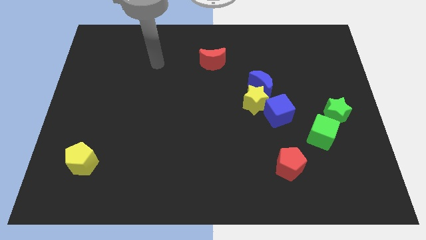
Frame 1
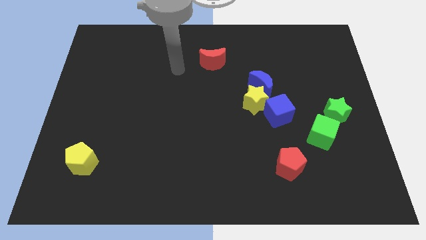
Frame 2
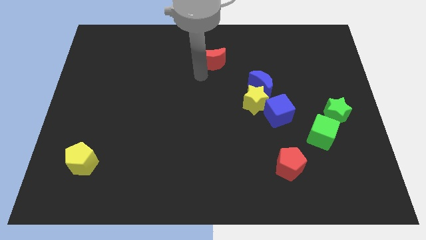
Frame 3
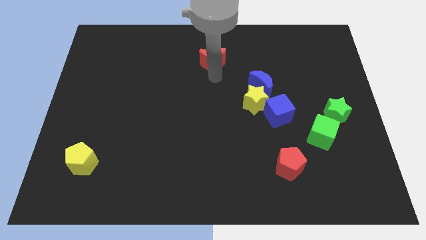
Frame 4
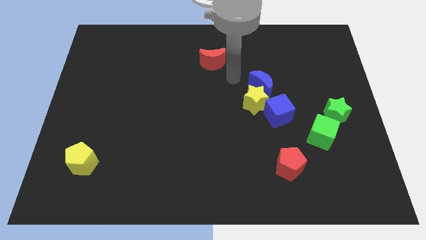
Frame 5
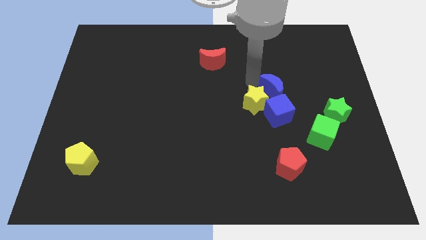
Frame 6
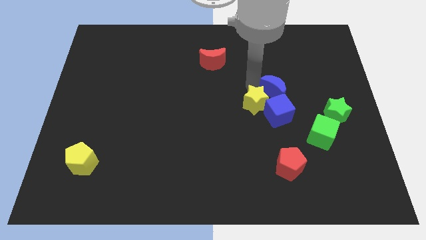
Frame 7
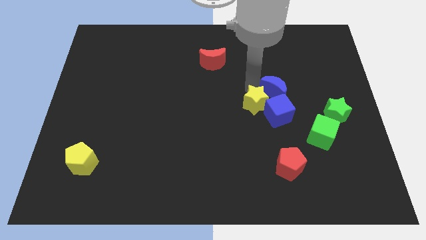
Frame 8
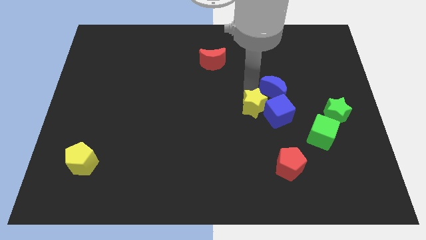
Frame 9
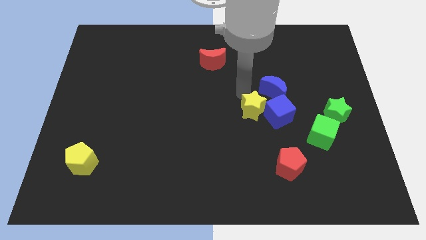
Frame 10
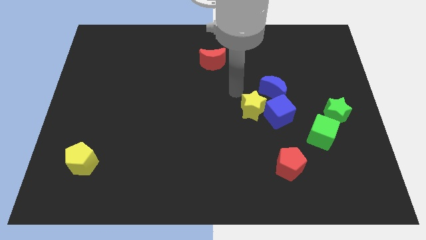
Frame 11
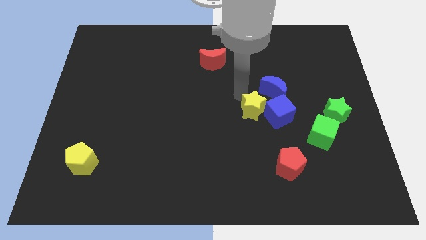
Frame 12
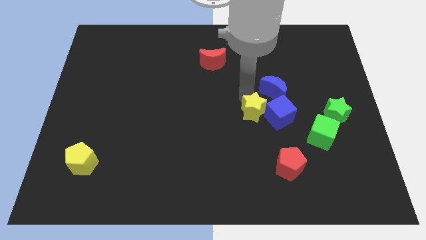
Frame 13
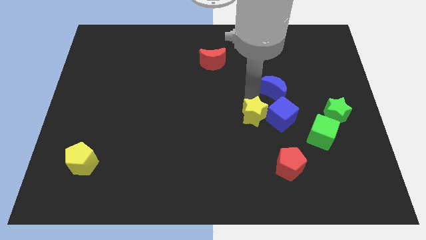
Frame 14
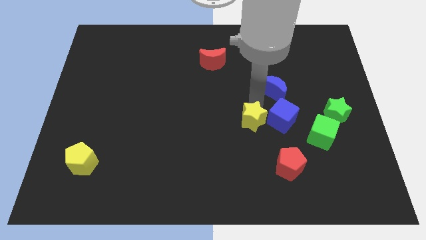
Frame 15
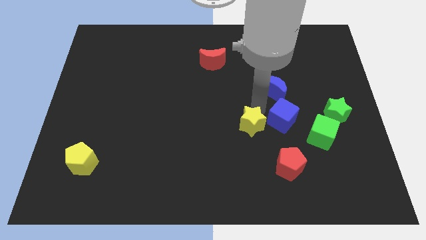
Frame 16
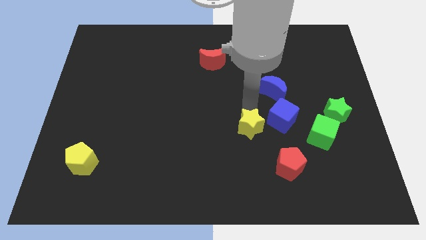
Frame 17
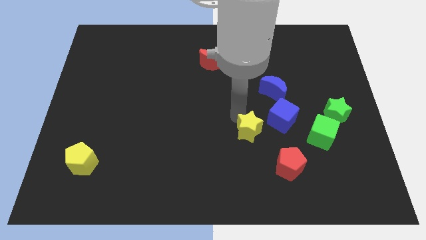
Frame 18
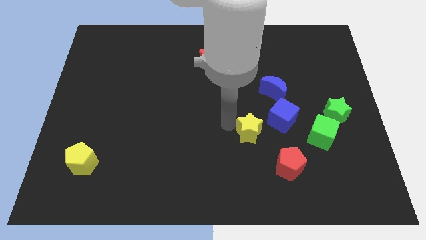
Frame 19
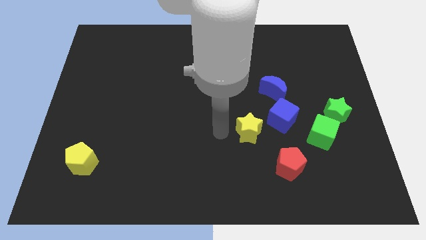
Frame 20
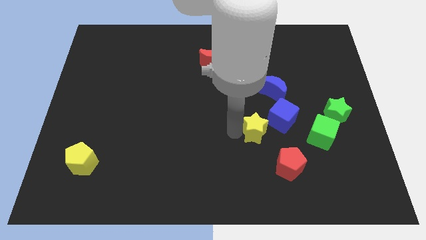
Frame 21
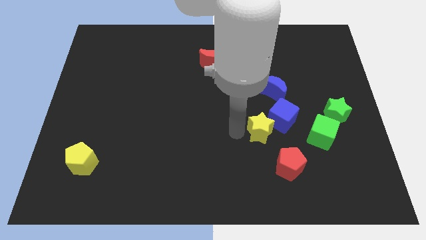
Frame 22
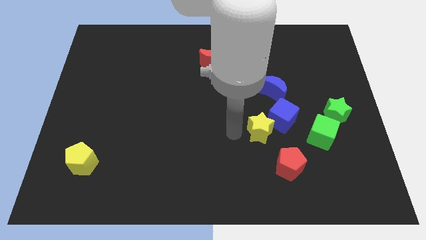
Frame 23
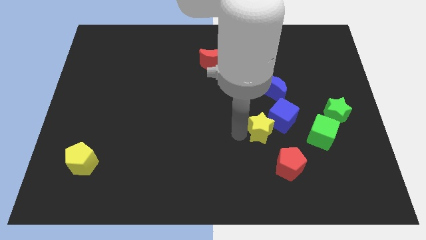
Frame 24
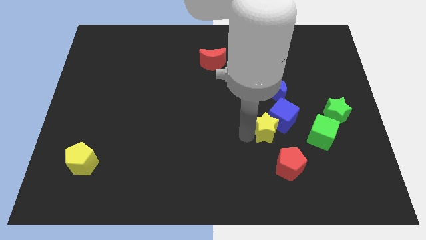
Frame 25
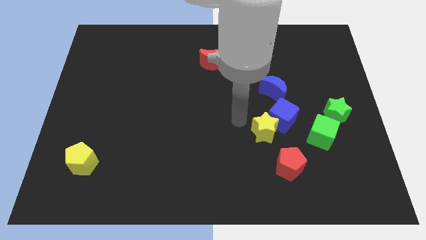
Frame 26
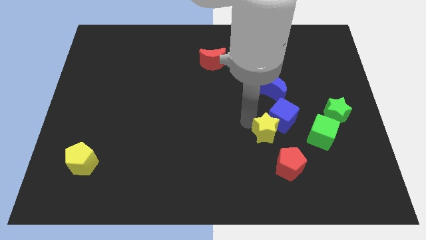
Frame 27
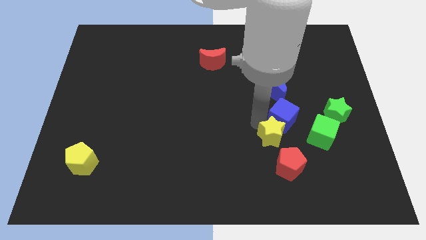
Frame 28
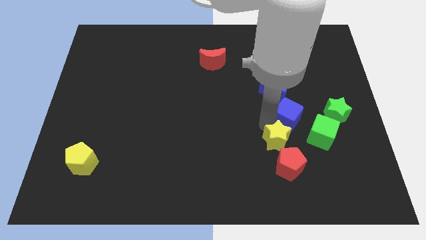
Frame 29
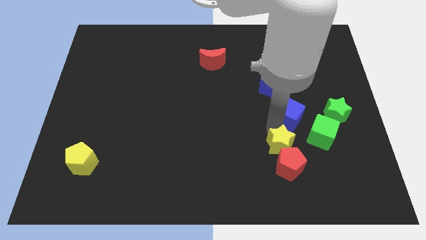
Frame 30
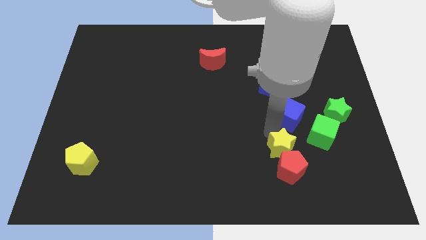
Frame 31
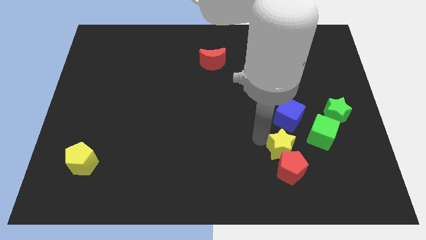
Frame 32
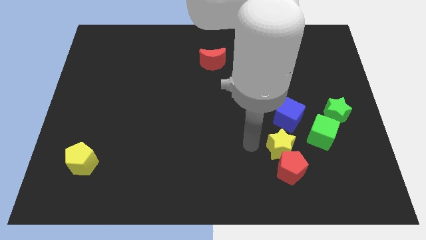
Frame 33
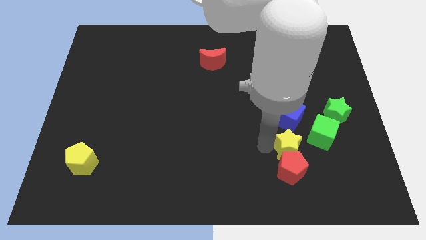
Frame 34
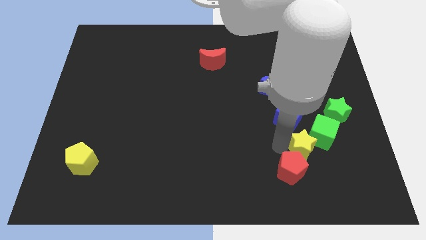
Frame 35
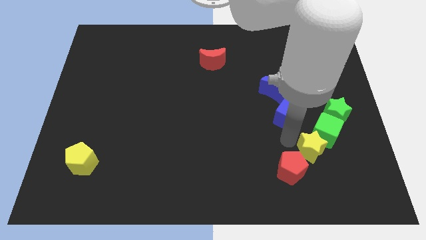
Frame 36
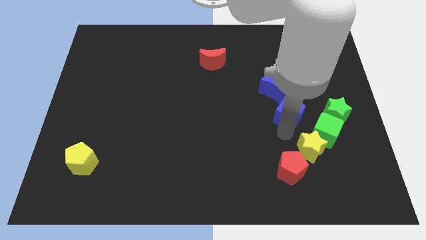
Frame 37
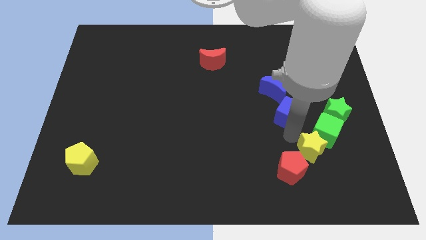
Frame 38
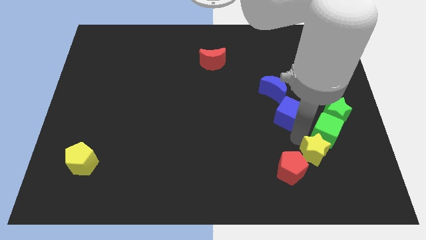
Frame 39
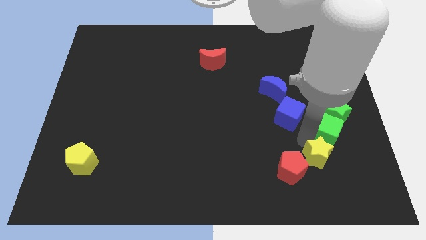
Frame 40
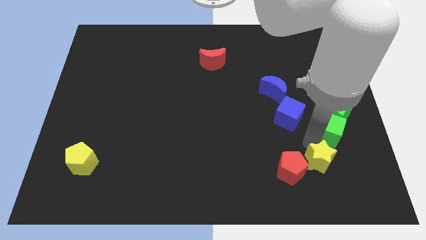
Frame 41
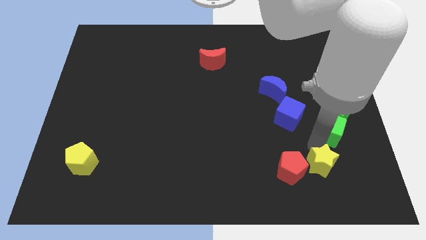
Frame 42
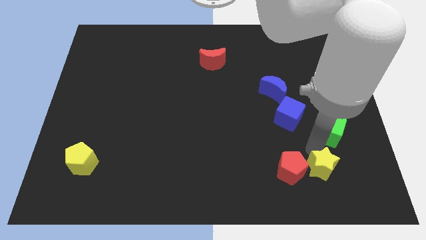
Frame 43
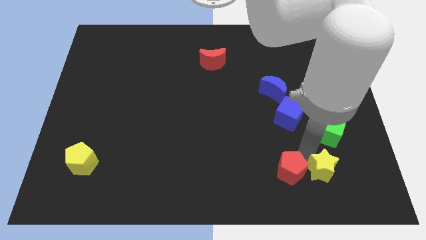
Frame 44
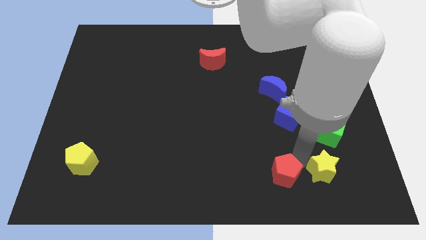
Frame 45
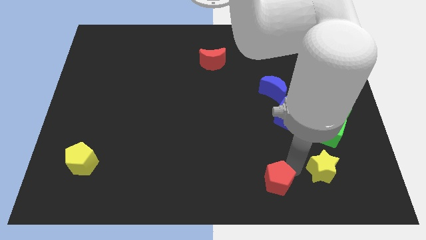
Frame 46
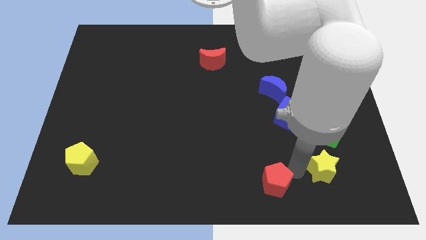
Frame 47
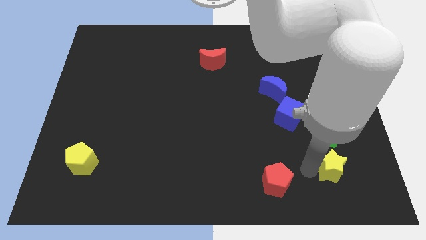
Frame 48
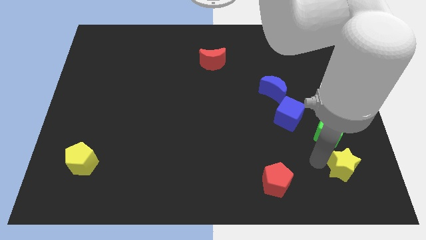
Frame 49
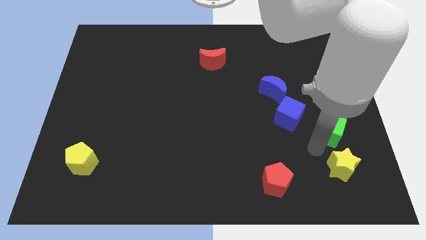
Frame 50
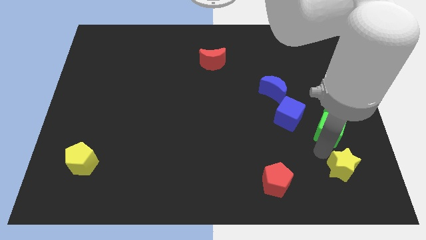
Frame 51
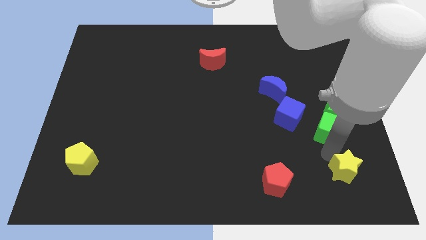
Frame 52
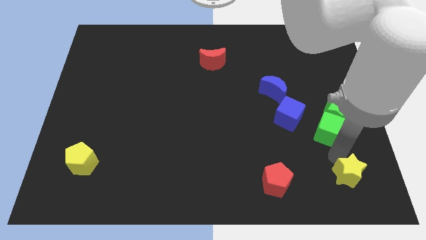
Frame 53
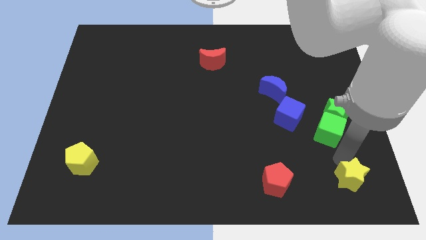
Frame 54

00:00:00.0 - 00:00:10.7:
push the yellow star to the bottom right of the board
